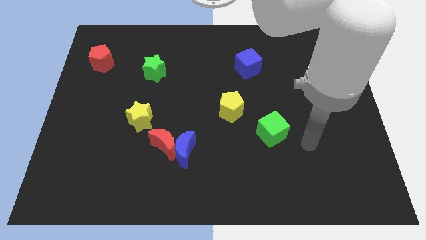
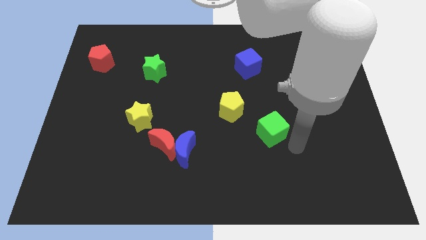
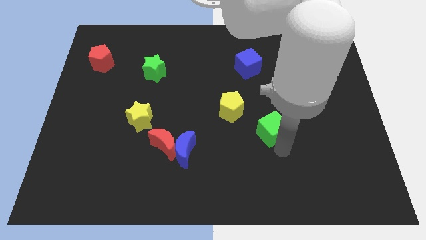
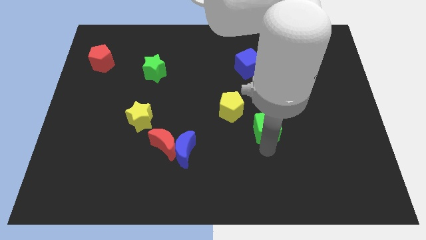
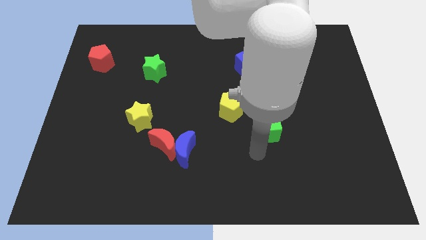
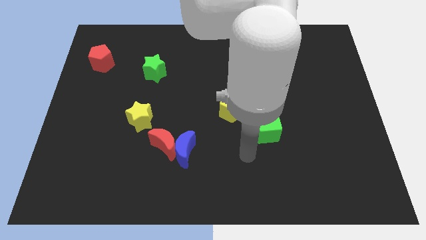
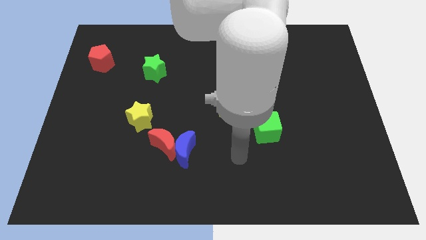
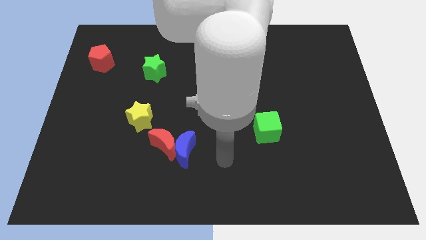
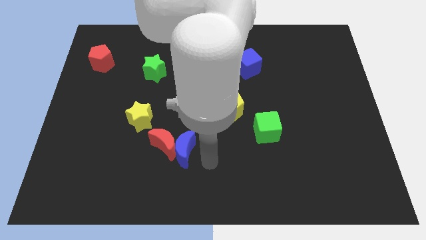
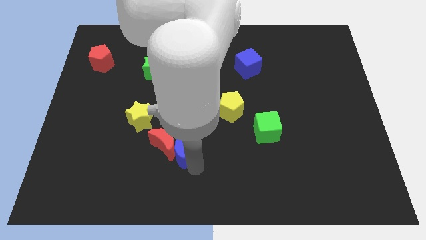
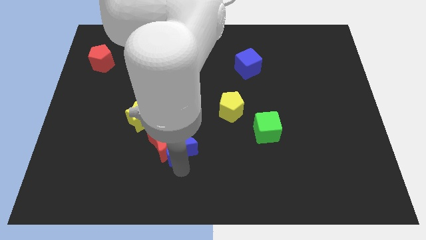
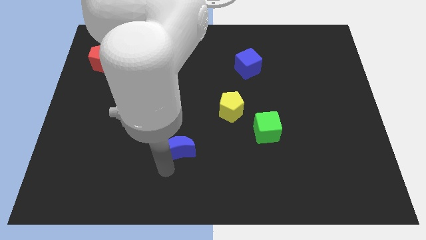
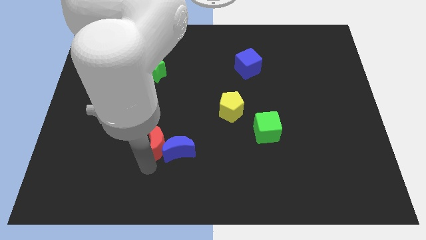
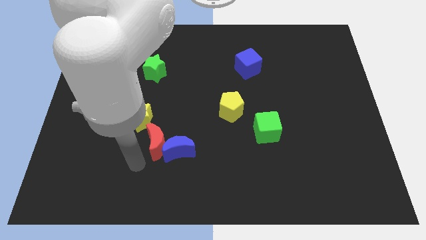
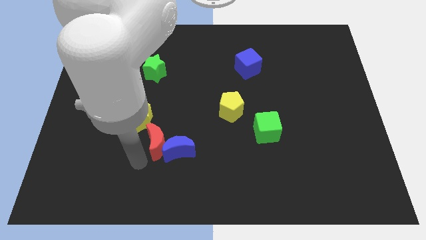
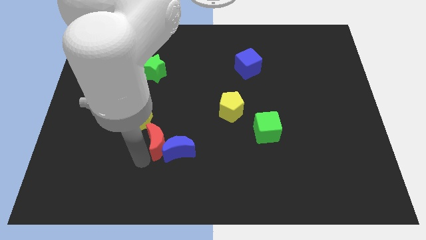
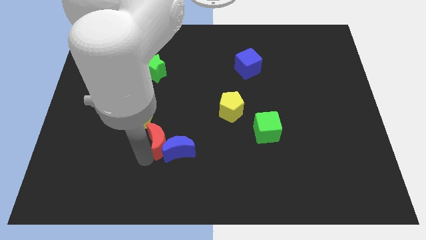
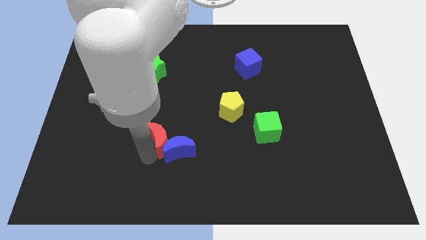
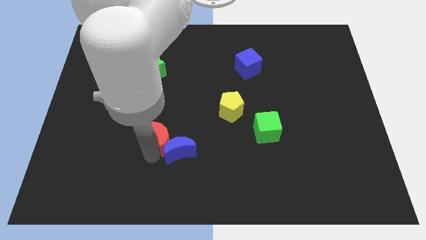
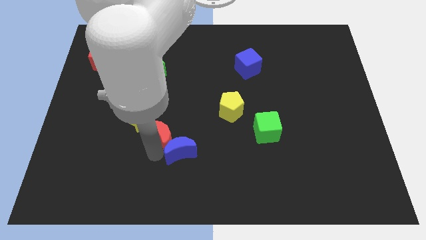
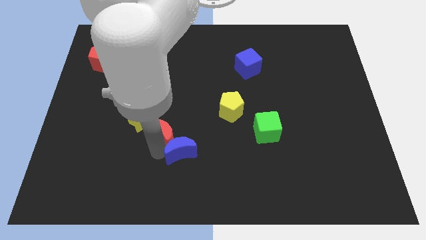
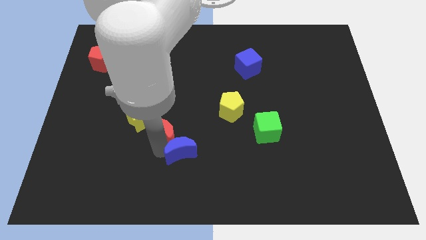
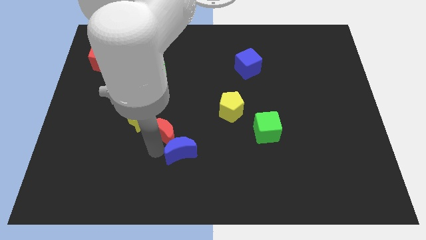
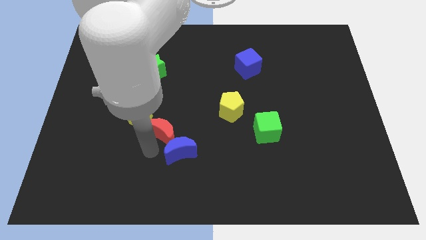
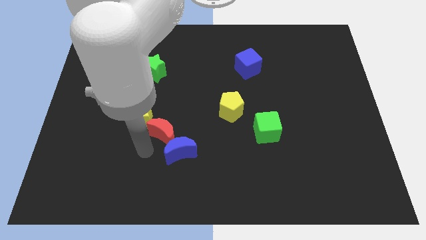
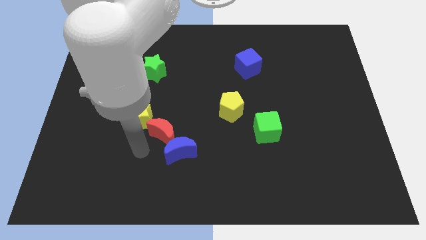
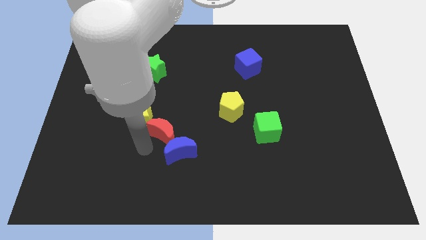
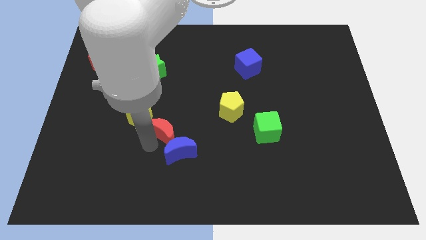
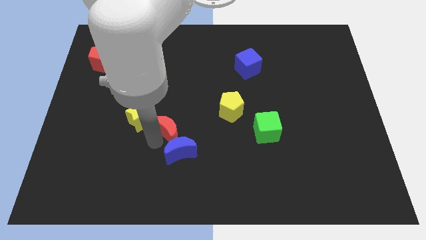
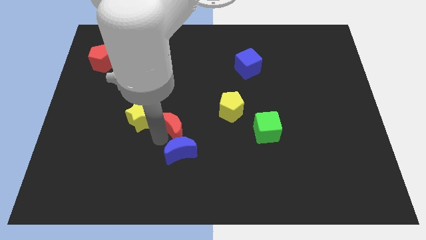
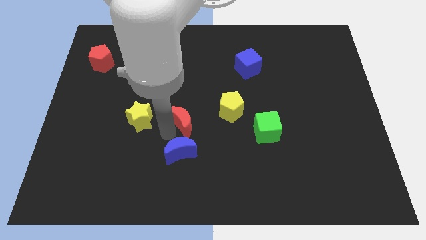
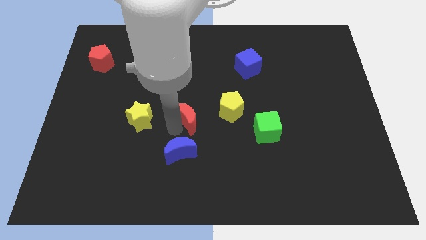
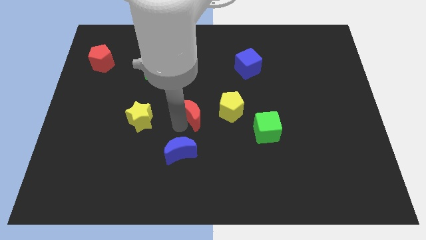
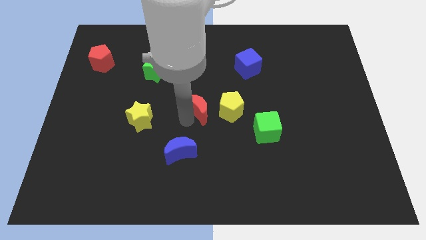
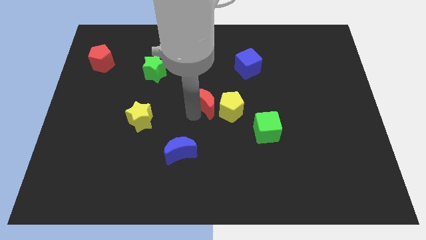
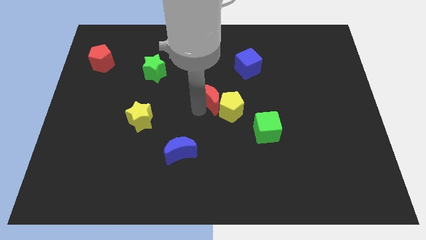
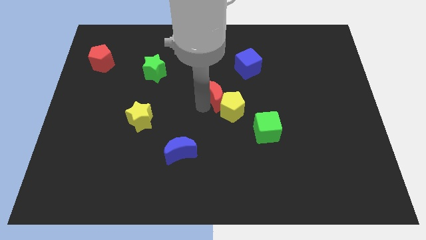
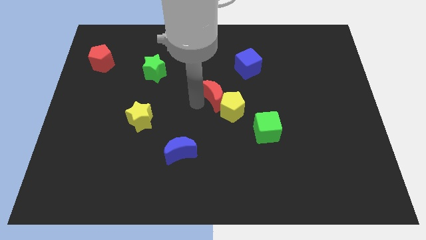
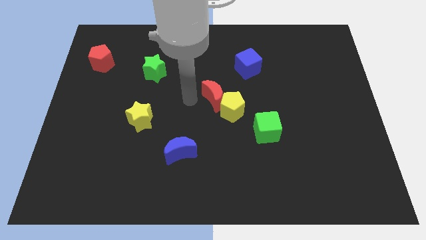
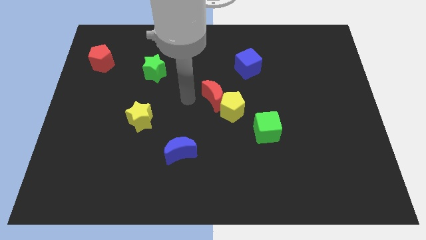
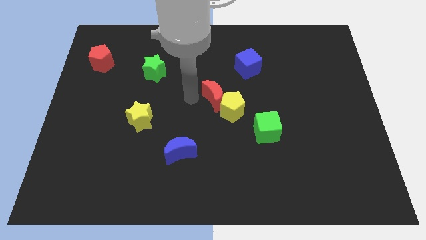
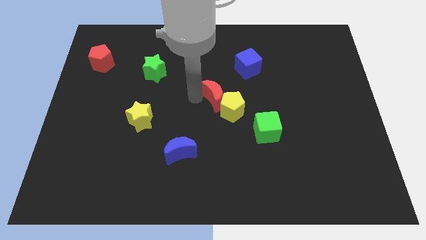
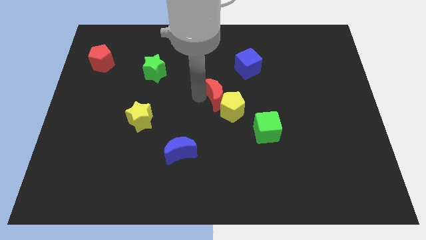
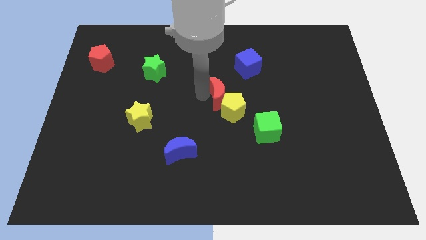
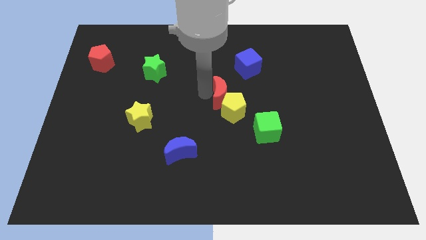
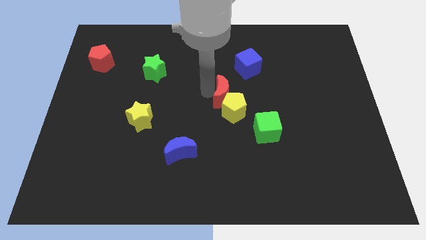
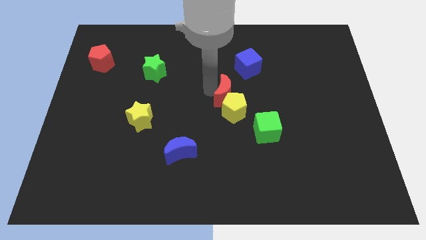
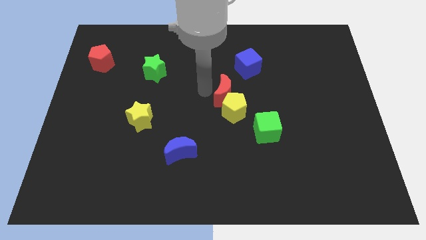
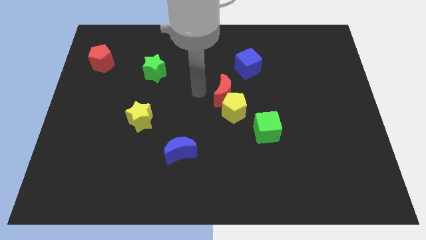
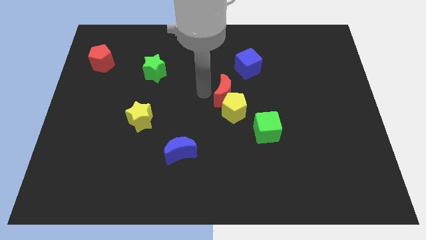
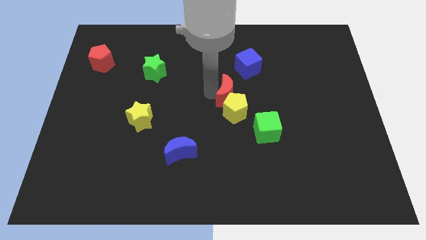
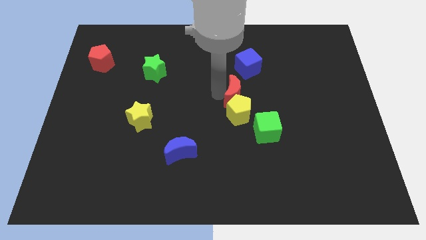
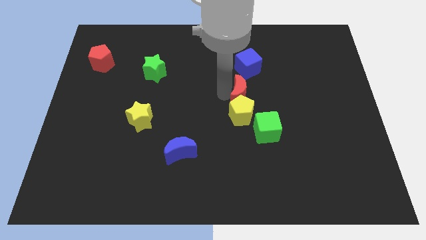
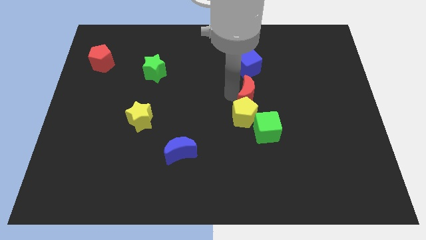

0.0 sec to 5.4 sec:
slide the red moon to the top of the green cube

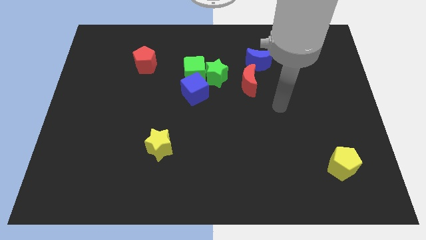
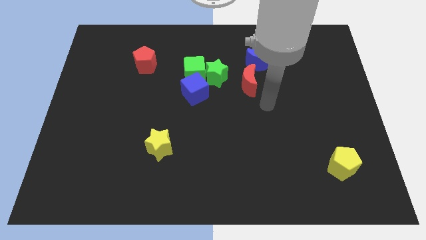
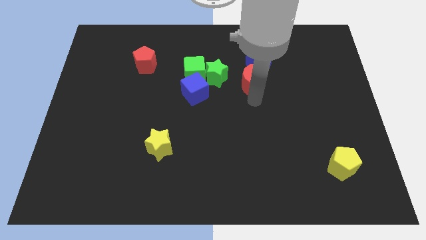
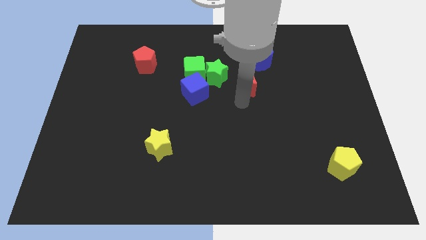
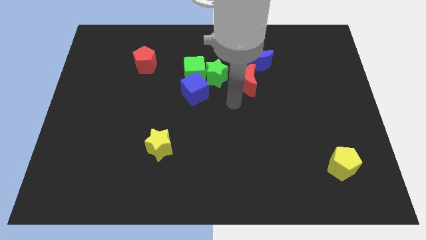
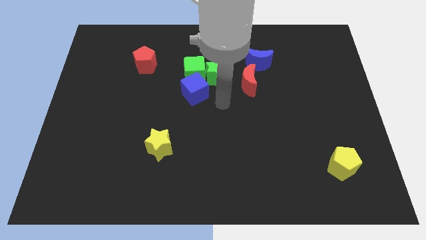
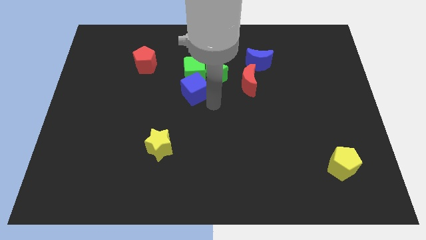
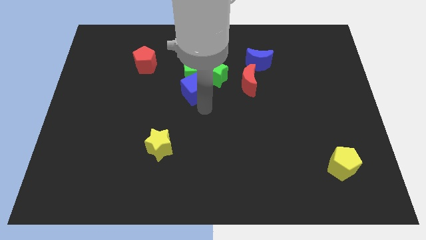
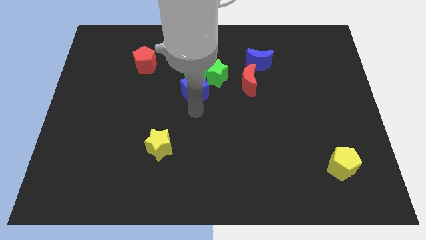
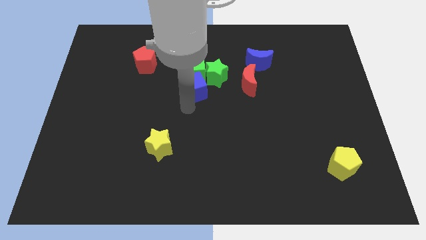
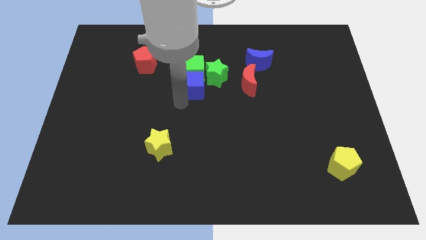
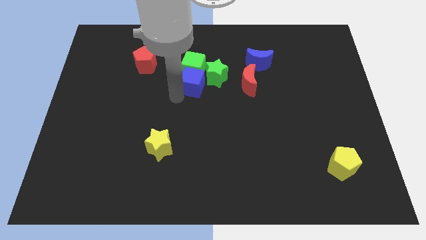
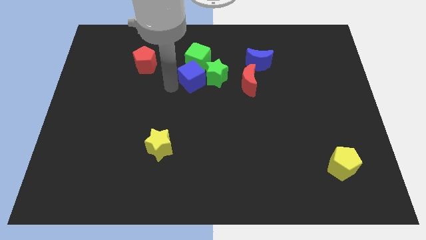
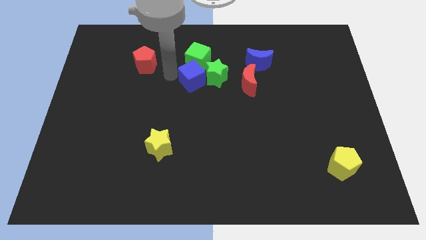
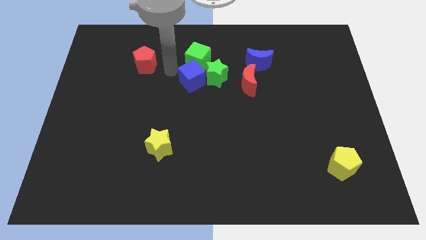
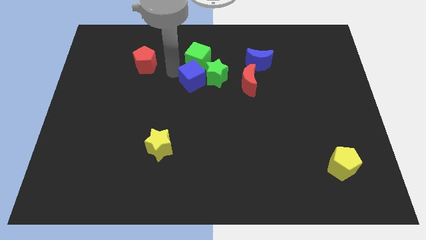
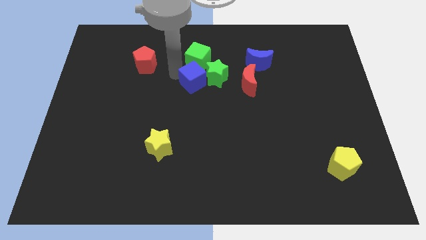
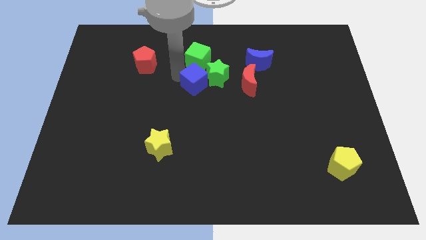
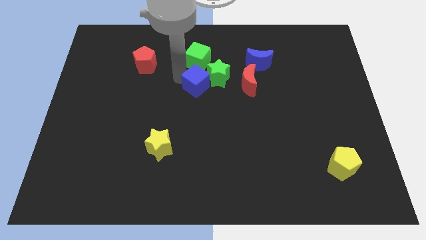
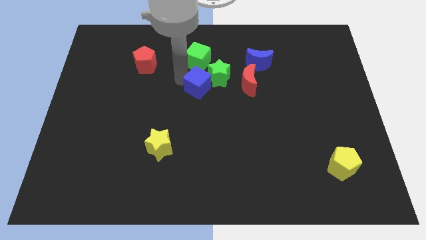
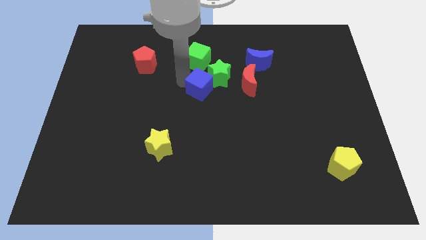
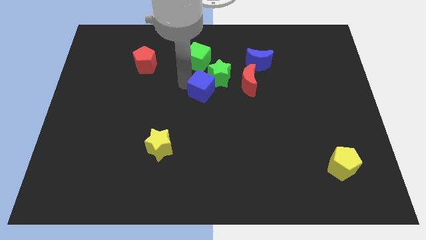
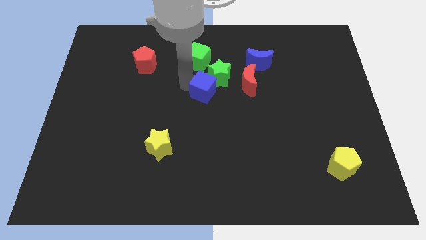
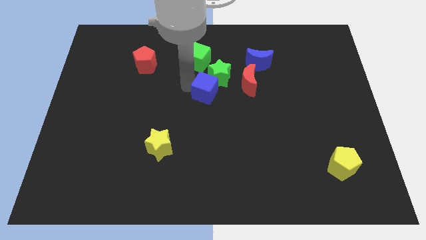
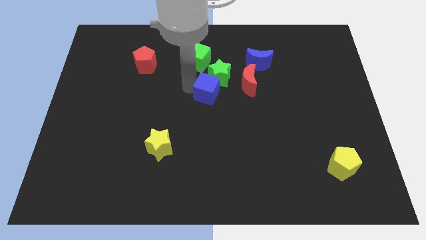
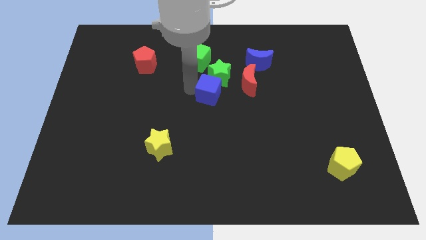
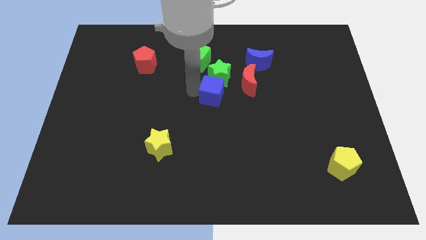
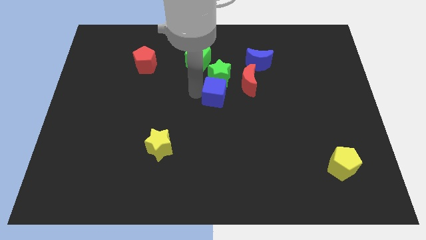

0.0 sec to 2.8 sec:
put the blue cube to the bottom right of the green star

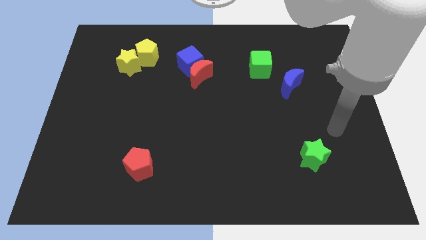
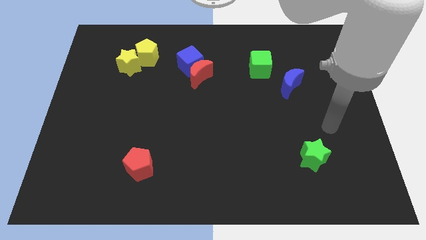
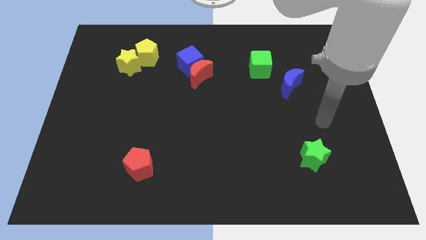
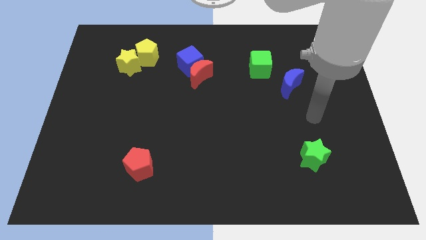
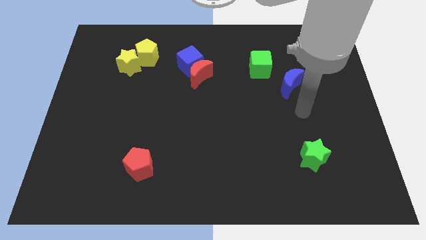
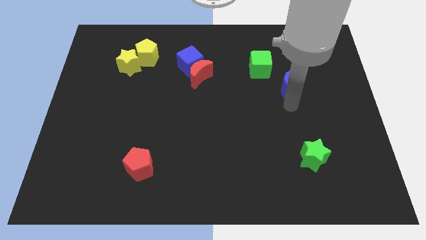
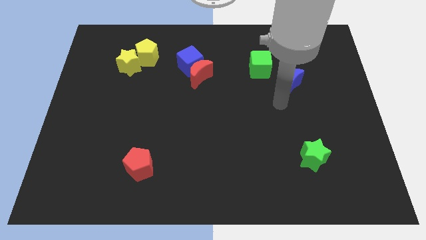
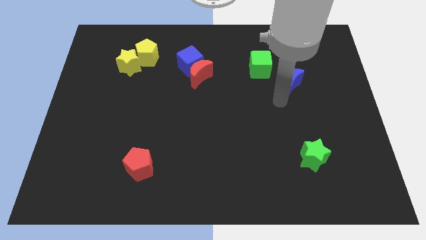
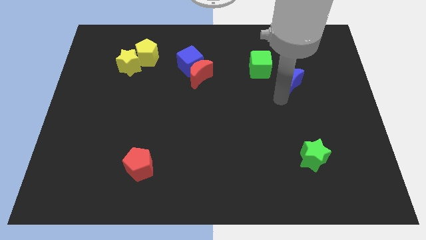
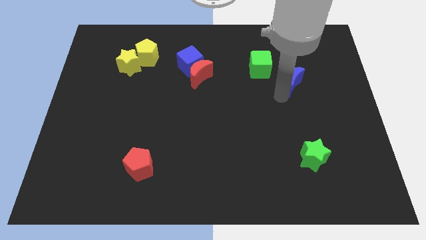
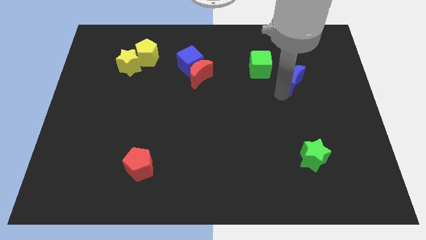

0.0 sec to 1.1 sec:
push the blue moon just right of the green cube
